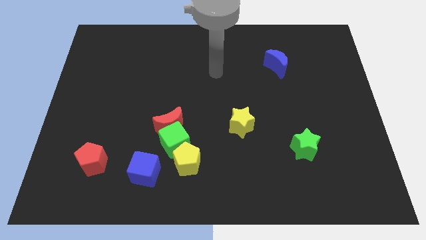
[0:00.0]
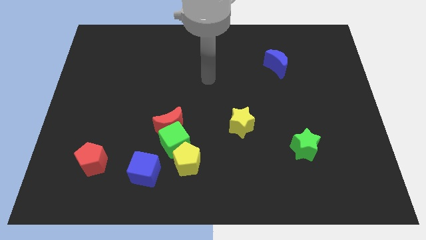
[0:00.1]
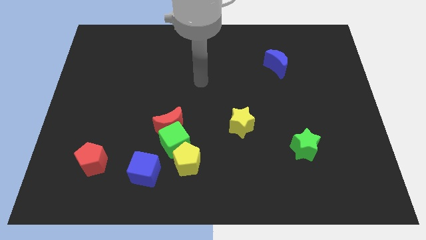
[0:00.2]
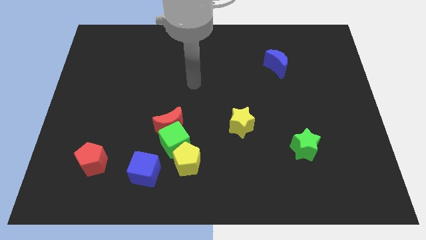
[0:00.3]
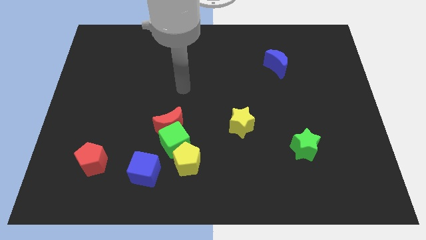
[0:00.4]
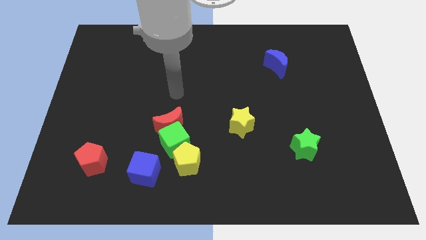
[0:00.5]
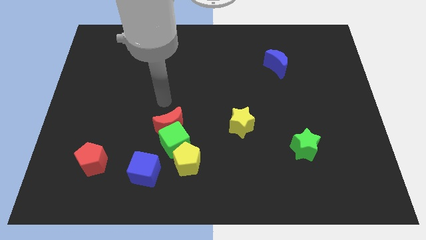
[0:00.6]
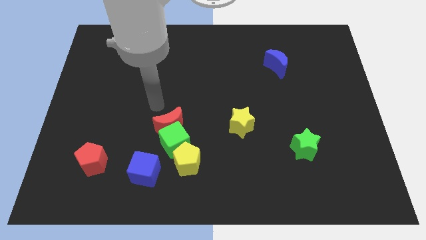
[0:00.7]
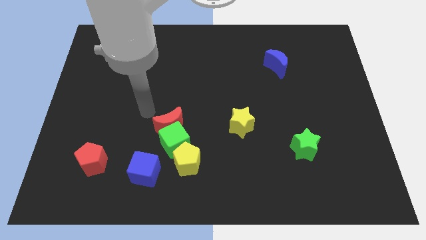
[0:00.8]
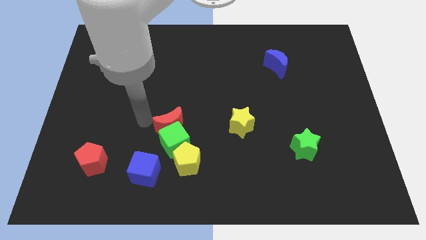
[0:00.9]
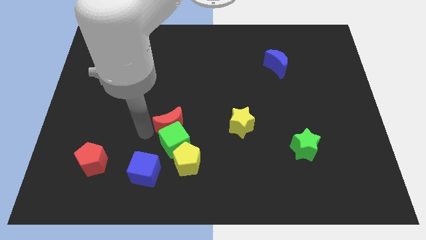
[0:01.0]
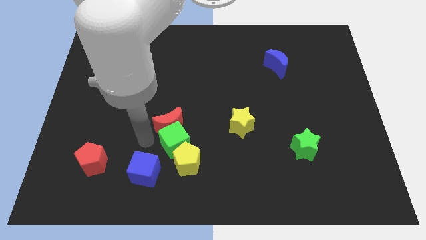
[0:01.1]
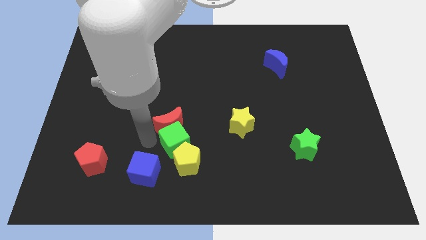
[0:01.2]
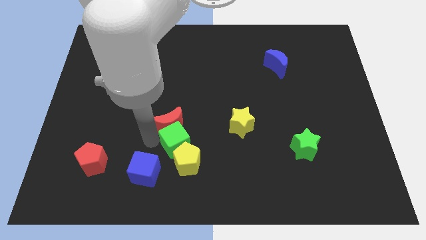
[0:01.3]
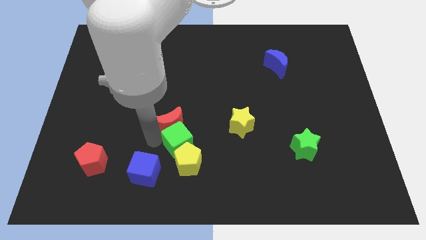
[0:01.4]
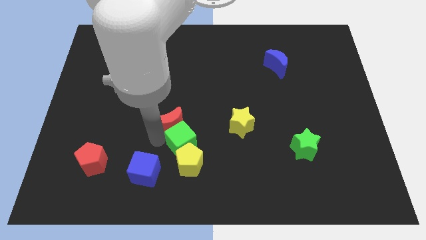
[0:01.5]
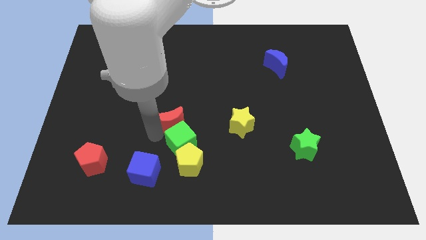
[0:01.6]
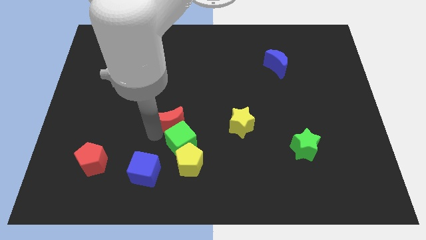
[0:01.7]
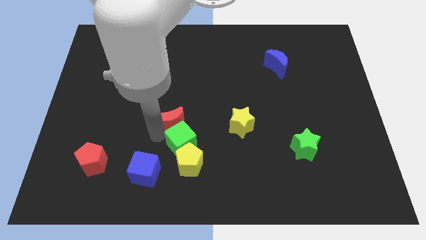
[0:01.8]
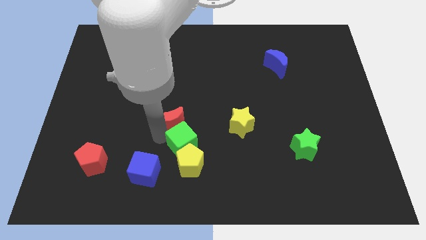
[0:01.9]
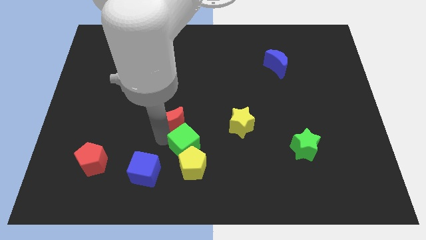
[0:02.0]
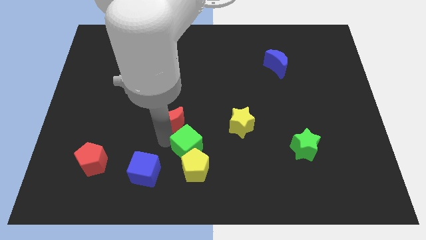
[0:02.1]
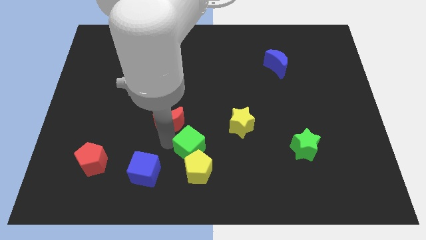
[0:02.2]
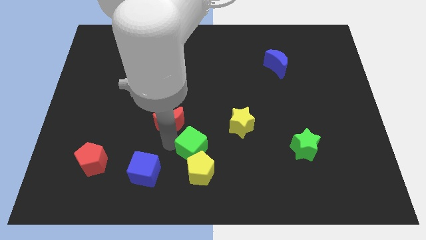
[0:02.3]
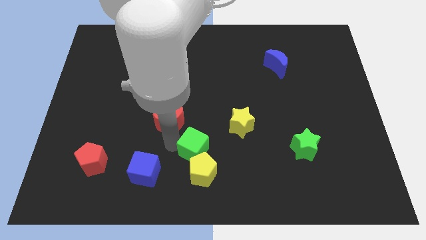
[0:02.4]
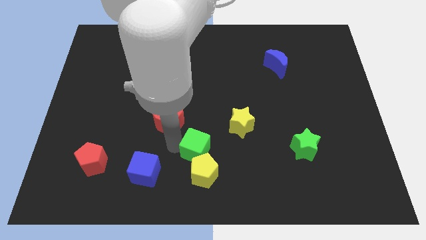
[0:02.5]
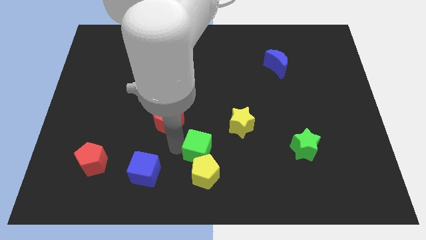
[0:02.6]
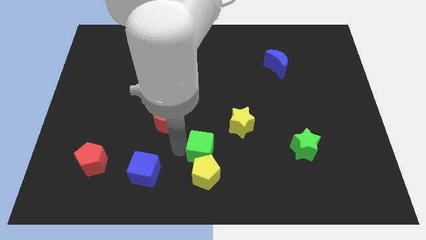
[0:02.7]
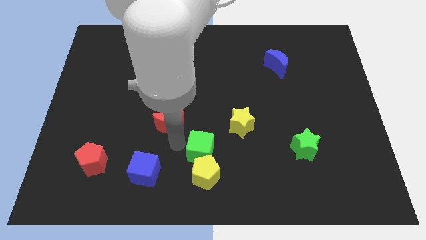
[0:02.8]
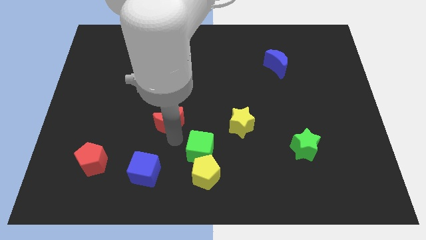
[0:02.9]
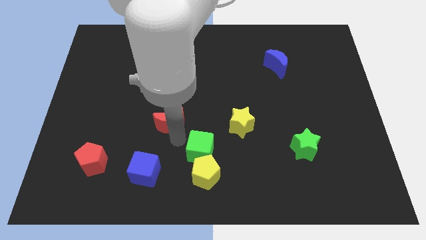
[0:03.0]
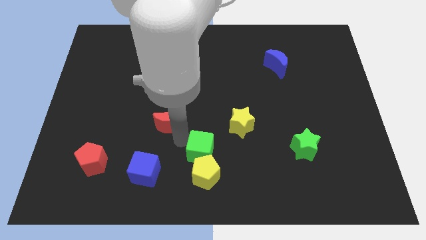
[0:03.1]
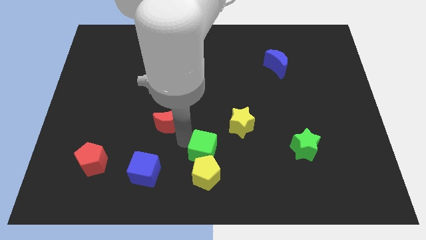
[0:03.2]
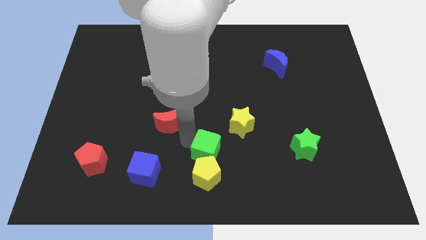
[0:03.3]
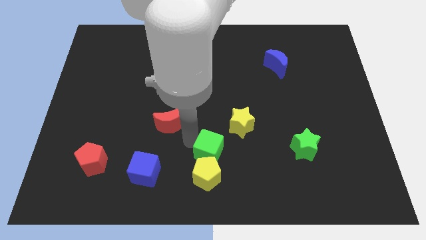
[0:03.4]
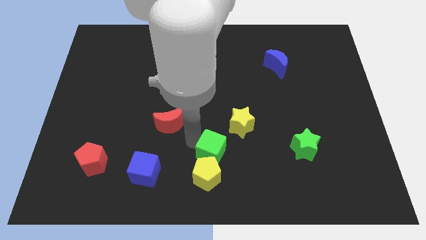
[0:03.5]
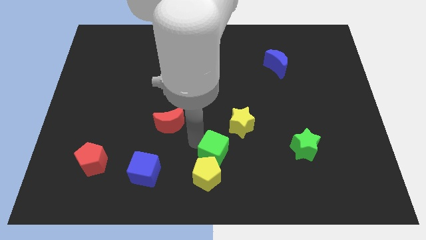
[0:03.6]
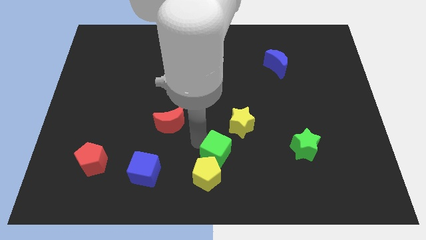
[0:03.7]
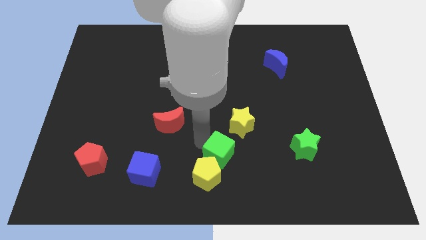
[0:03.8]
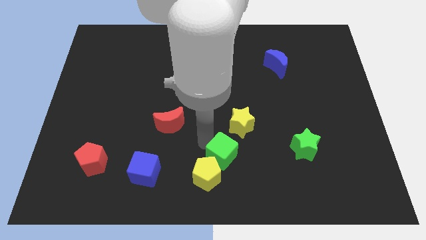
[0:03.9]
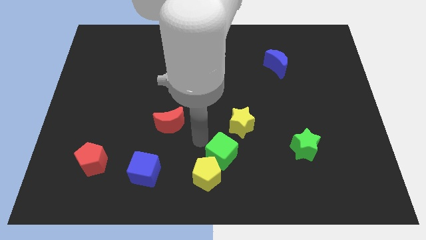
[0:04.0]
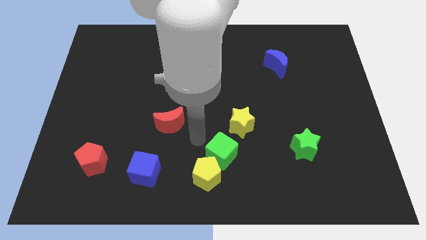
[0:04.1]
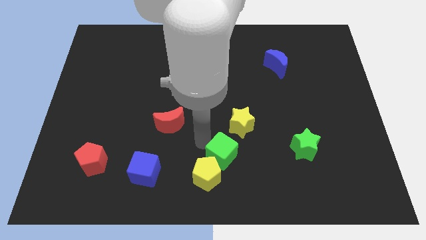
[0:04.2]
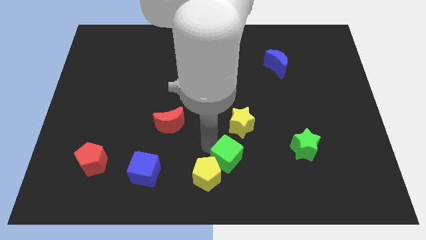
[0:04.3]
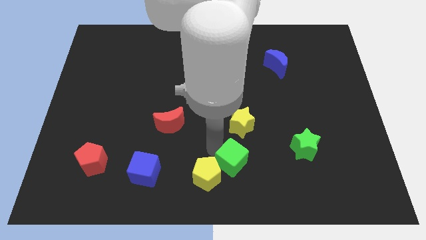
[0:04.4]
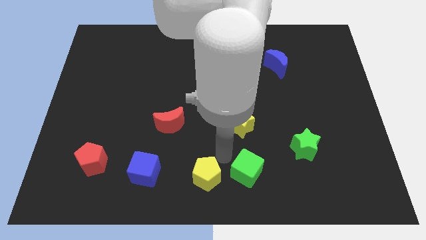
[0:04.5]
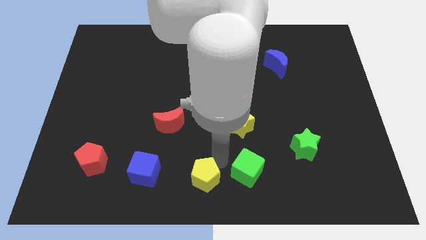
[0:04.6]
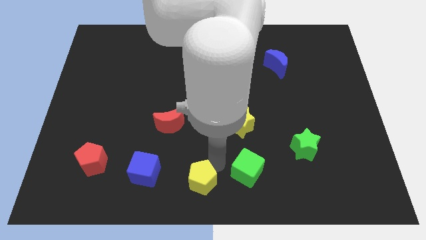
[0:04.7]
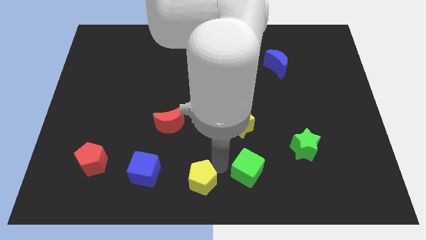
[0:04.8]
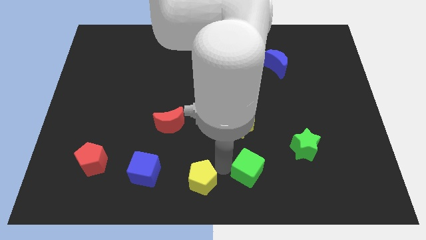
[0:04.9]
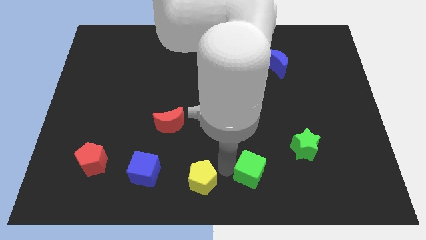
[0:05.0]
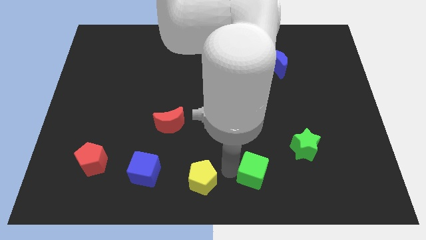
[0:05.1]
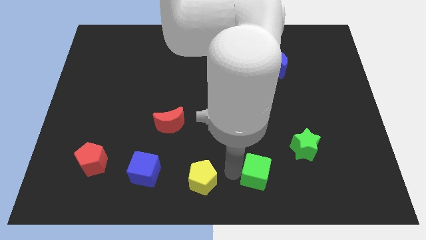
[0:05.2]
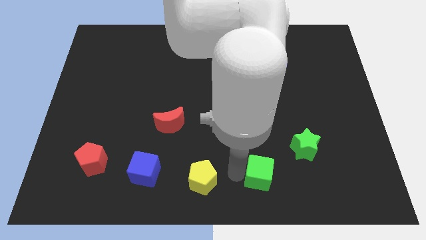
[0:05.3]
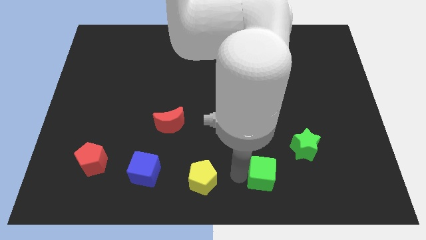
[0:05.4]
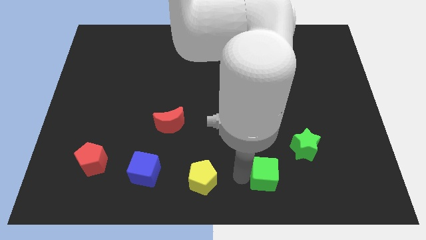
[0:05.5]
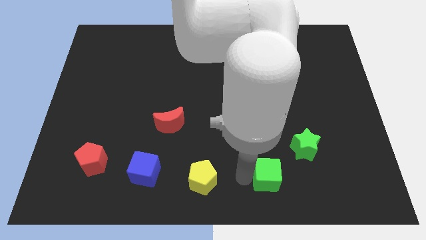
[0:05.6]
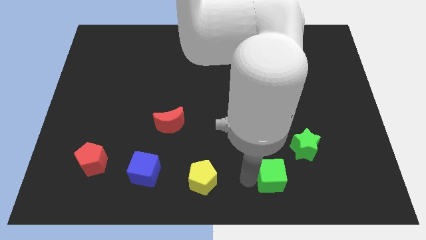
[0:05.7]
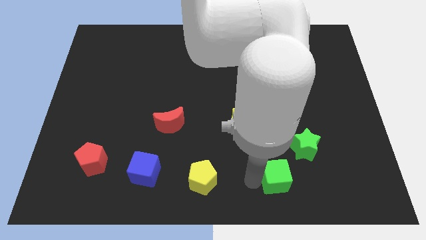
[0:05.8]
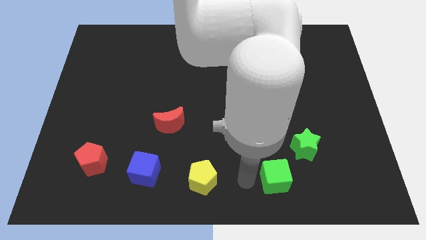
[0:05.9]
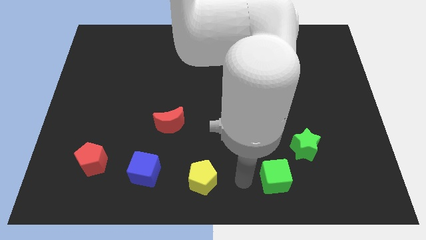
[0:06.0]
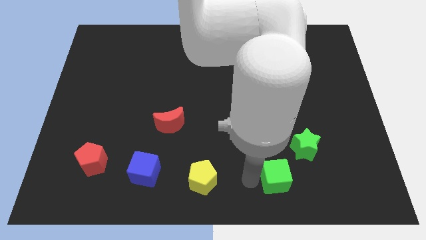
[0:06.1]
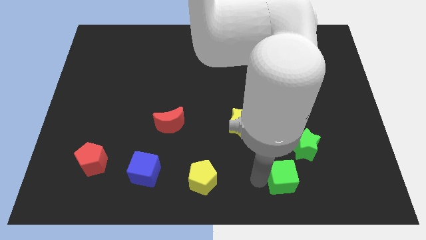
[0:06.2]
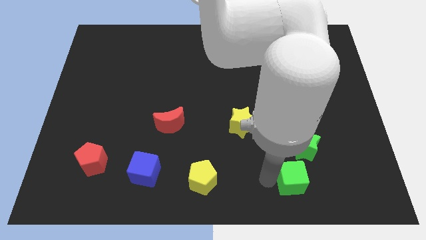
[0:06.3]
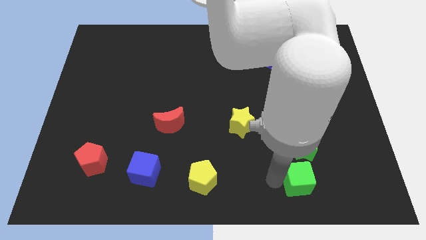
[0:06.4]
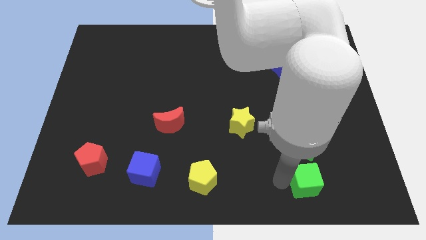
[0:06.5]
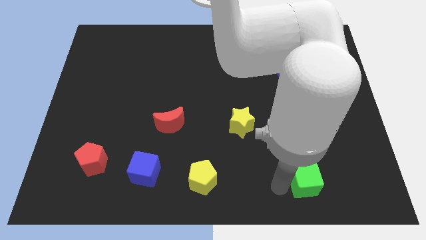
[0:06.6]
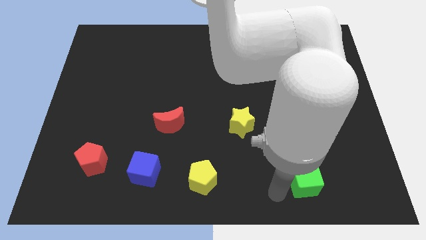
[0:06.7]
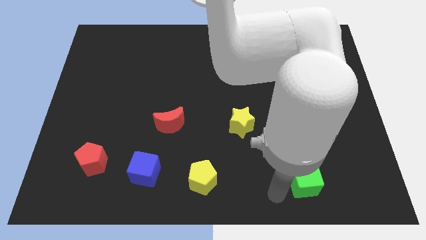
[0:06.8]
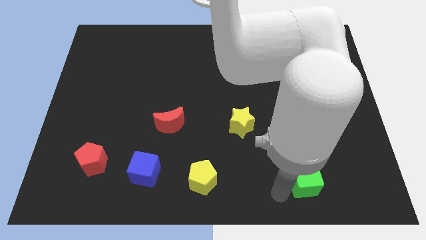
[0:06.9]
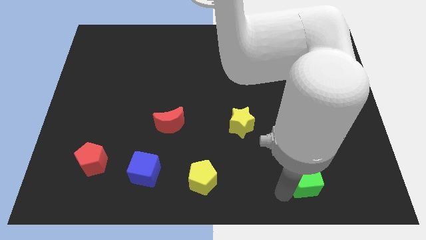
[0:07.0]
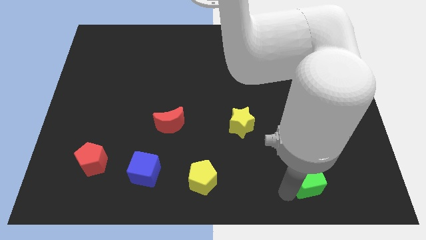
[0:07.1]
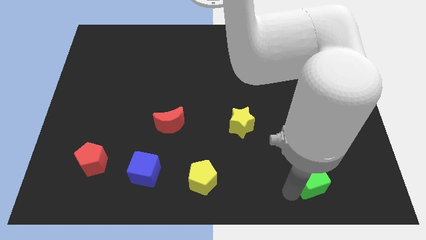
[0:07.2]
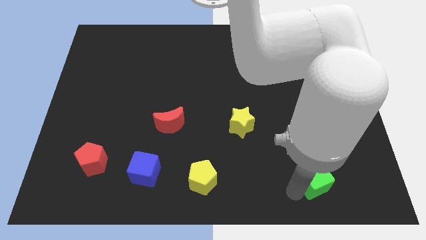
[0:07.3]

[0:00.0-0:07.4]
slide the green cube to the bottom right side of the green star

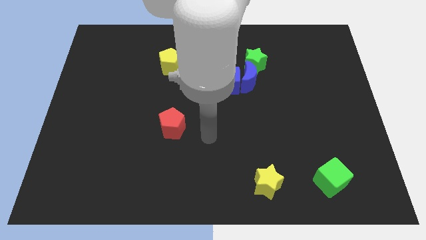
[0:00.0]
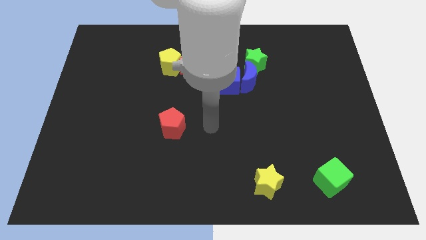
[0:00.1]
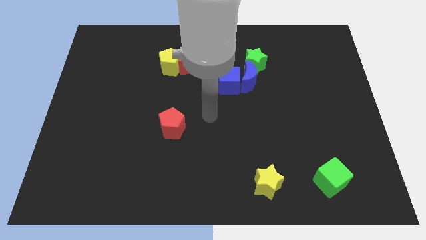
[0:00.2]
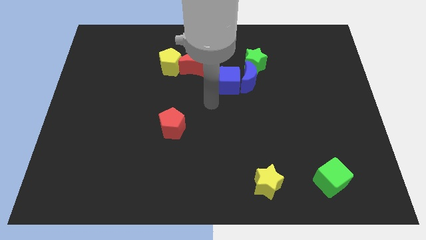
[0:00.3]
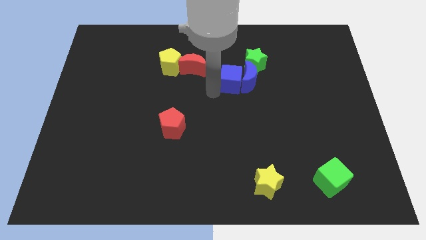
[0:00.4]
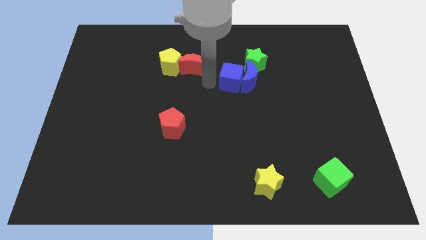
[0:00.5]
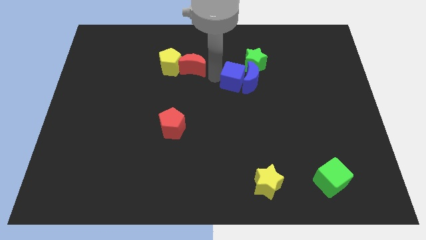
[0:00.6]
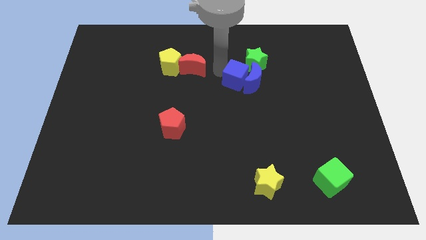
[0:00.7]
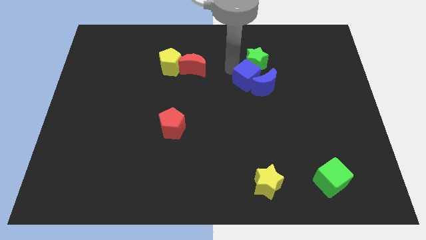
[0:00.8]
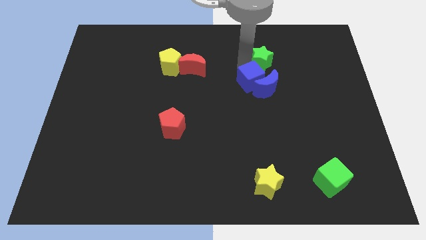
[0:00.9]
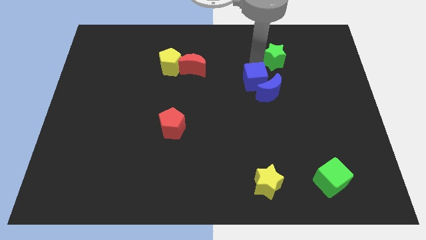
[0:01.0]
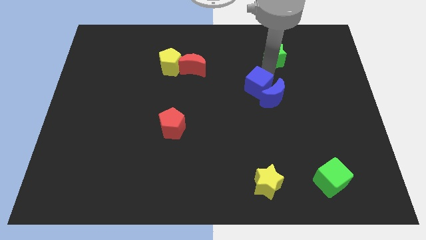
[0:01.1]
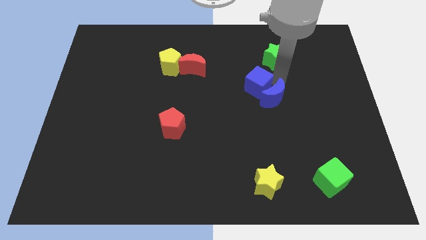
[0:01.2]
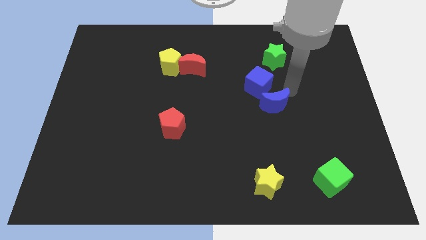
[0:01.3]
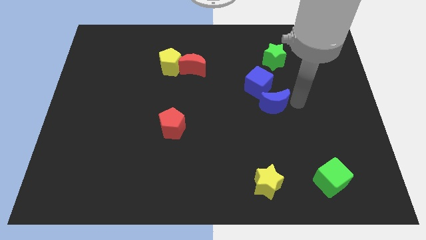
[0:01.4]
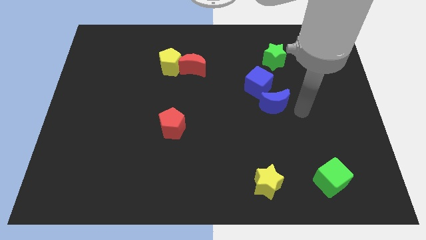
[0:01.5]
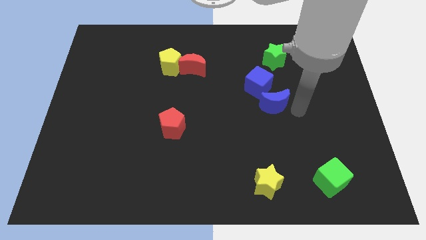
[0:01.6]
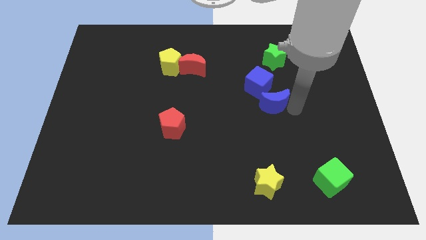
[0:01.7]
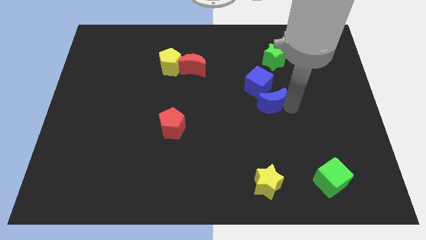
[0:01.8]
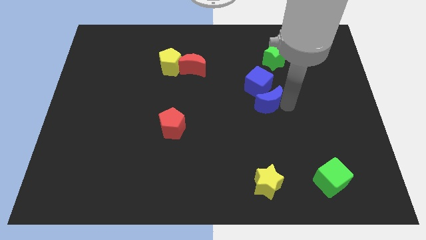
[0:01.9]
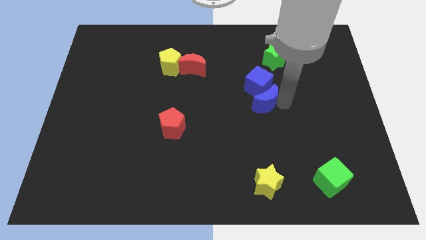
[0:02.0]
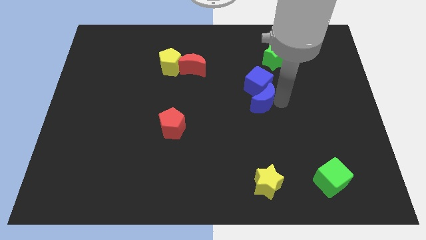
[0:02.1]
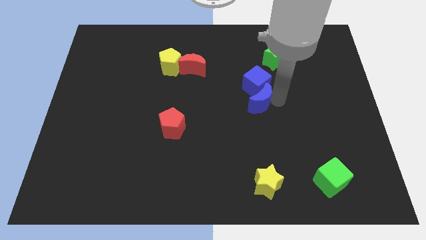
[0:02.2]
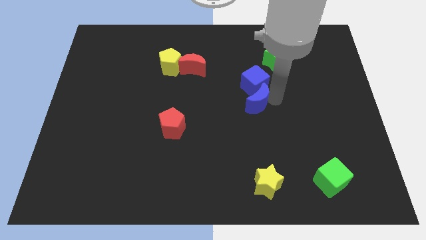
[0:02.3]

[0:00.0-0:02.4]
put the blue moon to the bottom left of the blue cube
